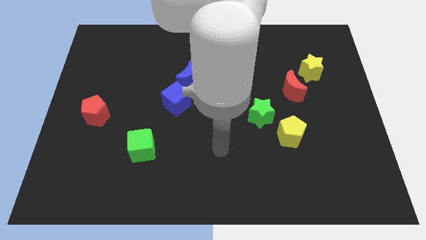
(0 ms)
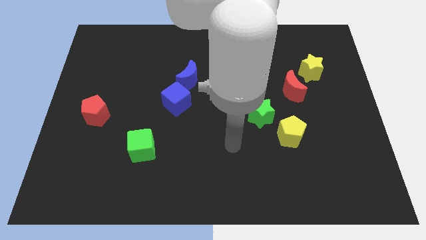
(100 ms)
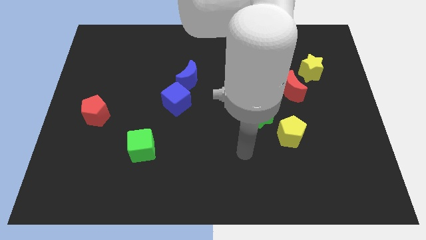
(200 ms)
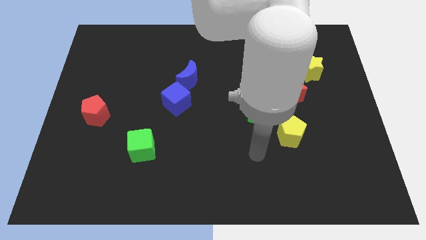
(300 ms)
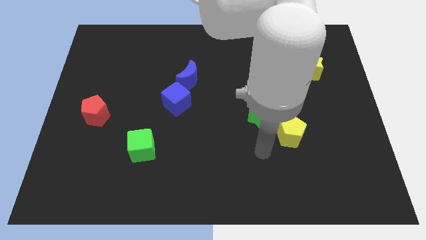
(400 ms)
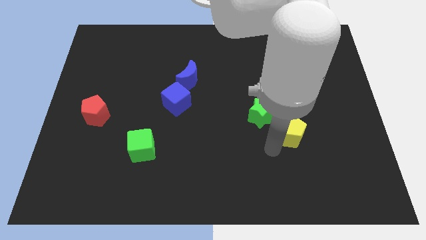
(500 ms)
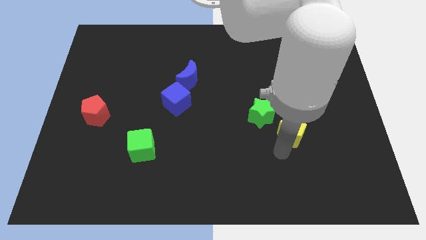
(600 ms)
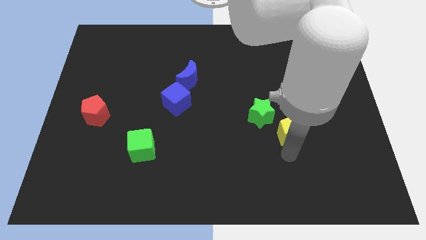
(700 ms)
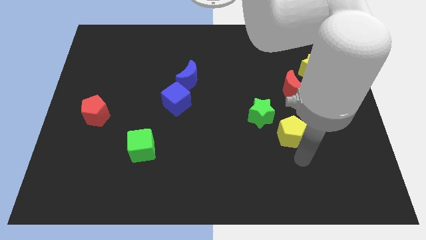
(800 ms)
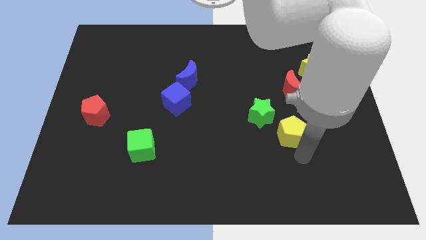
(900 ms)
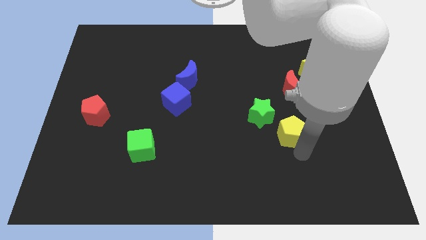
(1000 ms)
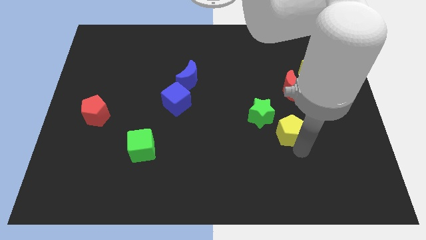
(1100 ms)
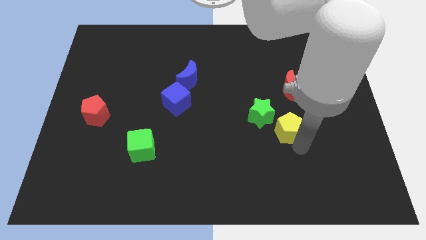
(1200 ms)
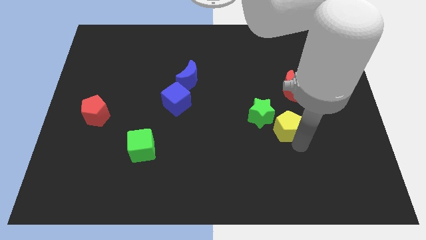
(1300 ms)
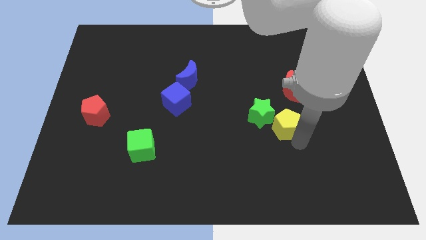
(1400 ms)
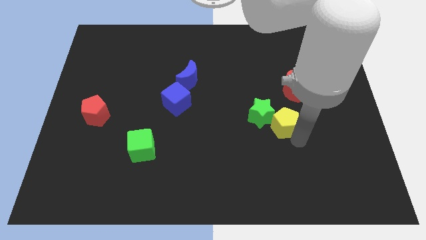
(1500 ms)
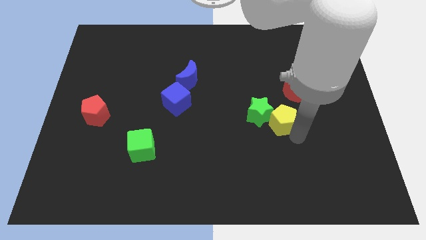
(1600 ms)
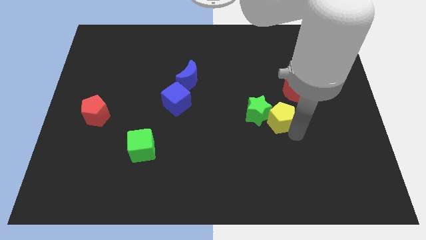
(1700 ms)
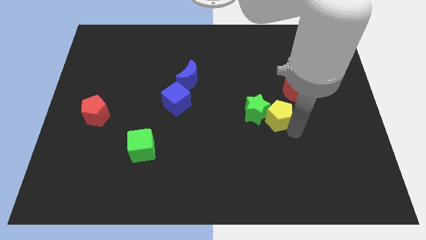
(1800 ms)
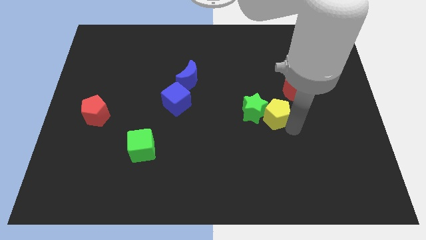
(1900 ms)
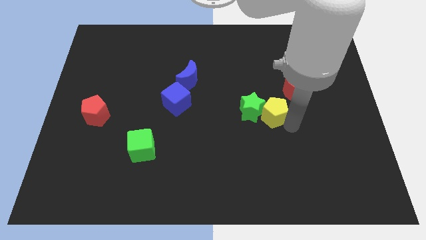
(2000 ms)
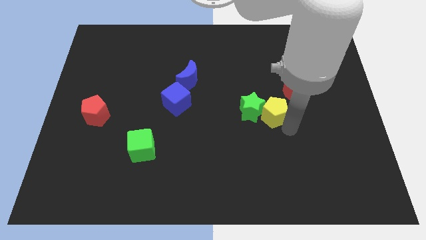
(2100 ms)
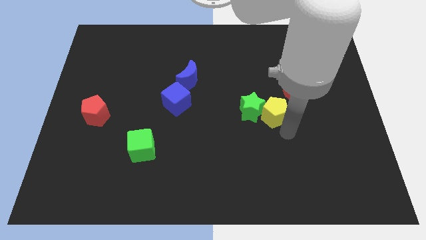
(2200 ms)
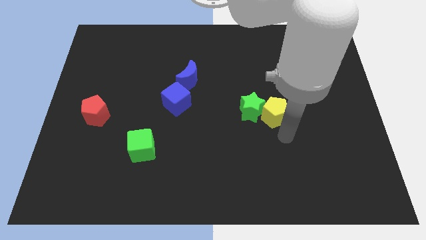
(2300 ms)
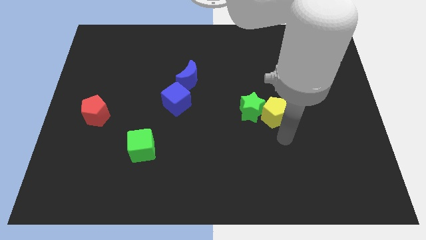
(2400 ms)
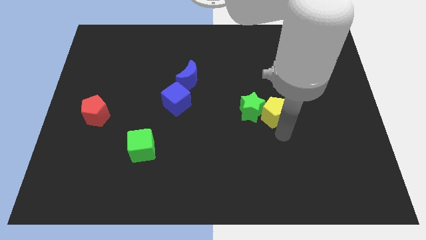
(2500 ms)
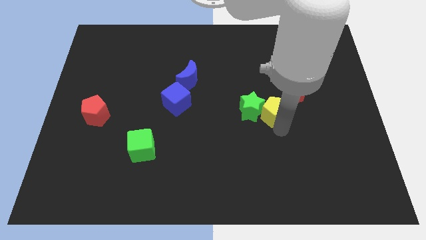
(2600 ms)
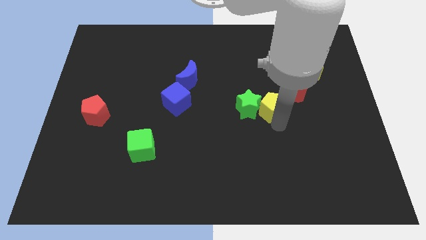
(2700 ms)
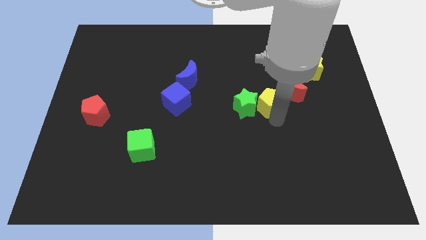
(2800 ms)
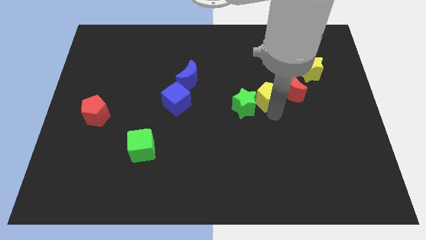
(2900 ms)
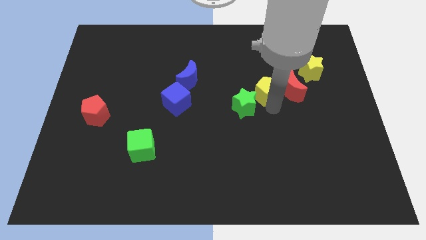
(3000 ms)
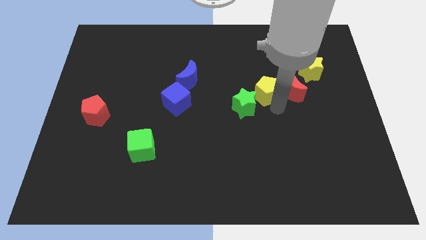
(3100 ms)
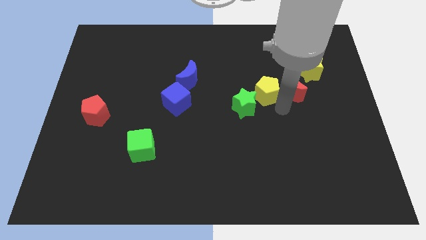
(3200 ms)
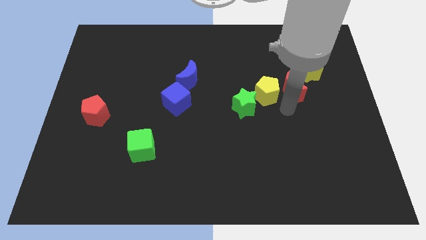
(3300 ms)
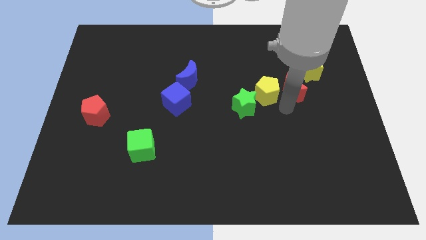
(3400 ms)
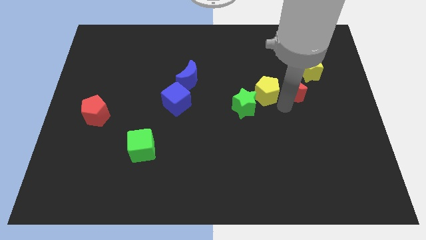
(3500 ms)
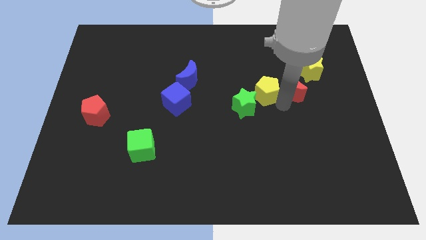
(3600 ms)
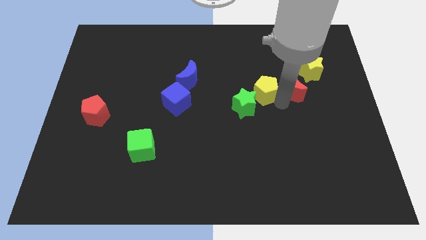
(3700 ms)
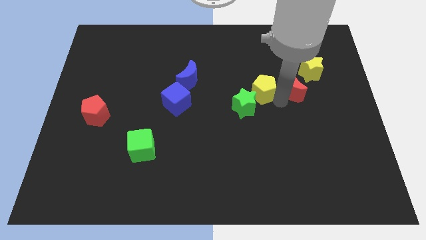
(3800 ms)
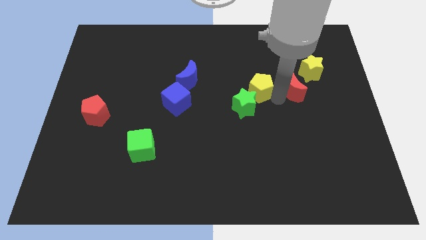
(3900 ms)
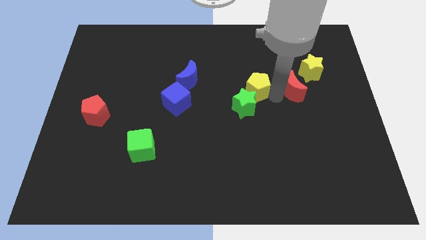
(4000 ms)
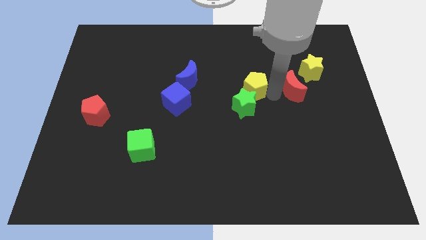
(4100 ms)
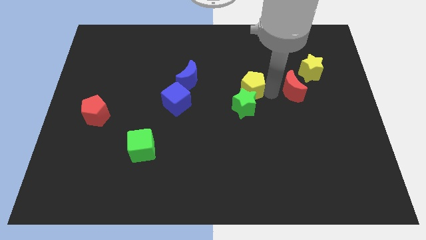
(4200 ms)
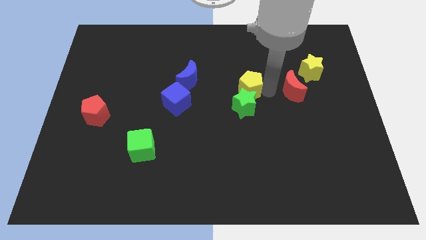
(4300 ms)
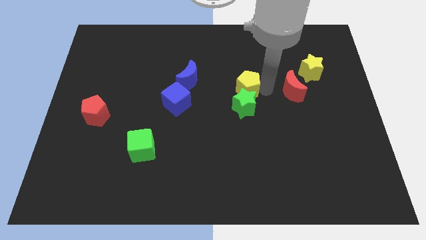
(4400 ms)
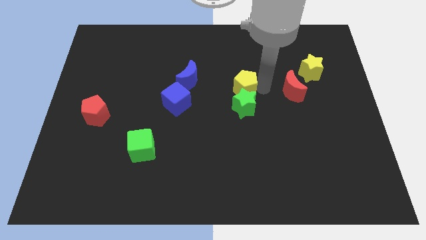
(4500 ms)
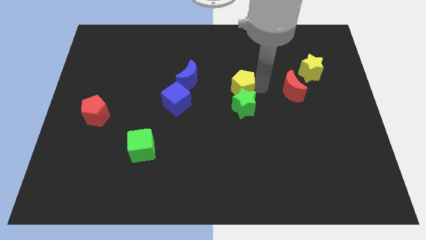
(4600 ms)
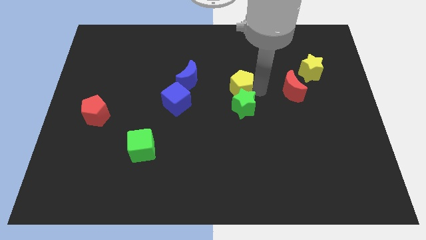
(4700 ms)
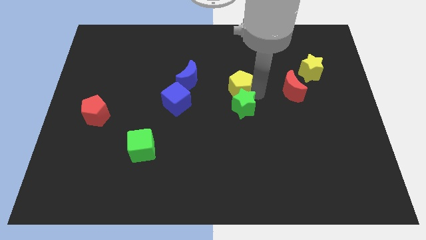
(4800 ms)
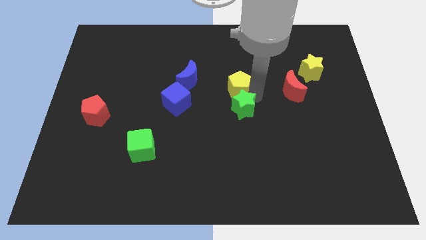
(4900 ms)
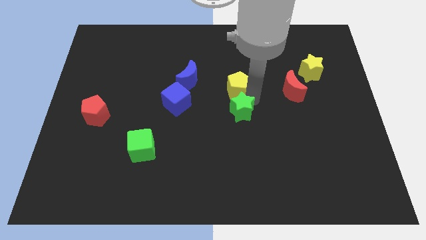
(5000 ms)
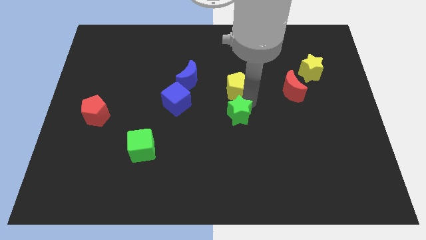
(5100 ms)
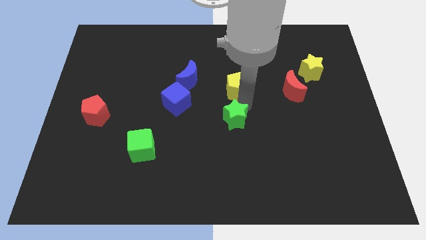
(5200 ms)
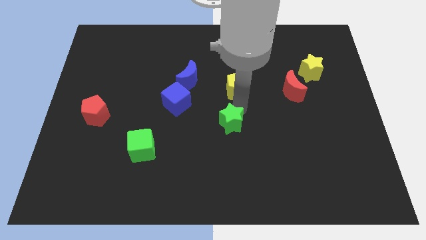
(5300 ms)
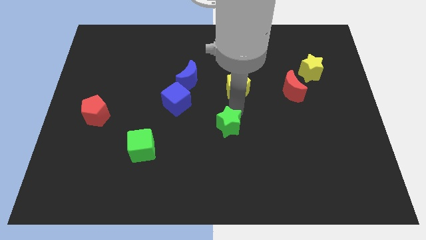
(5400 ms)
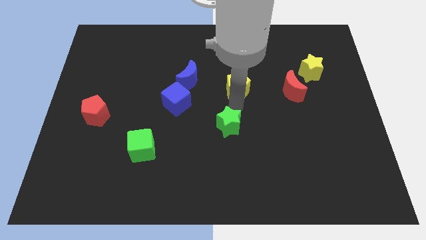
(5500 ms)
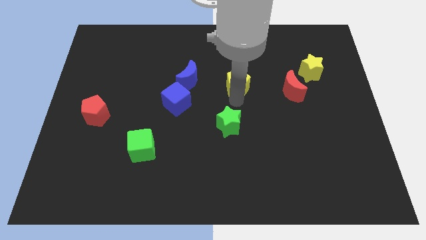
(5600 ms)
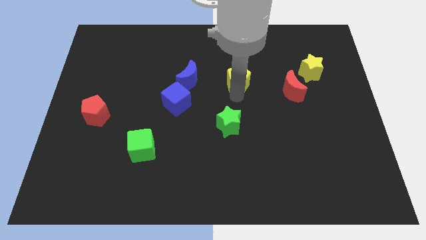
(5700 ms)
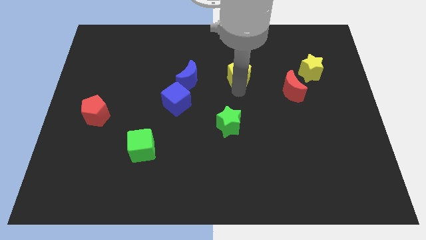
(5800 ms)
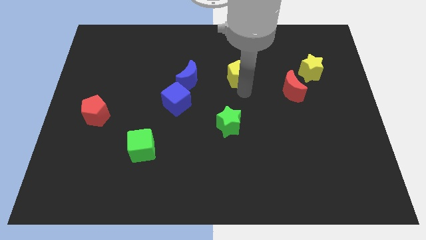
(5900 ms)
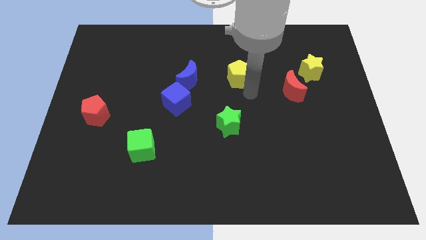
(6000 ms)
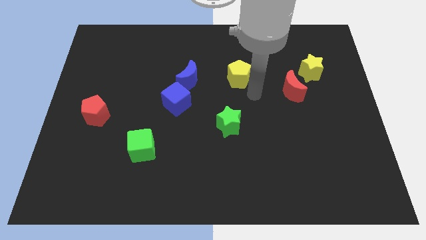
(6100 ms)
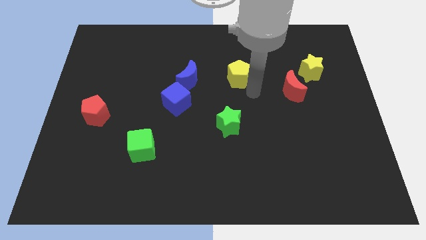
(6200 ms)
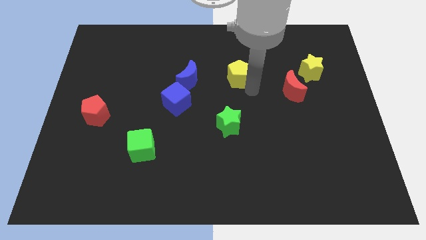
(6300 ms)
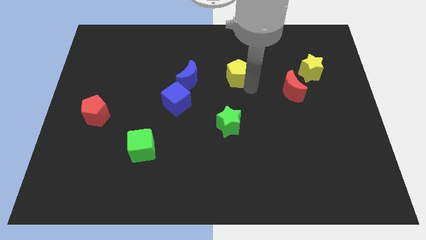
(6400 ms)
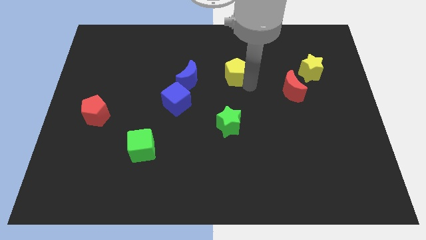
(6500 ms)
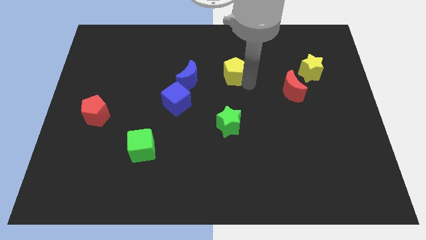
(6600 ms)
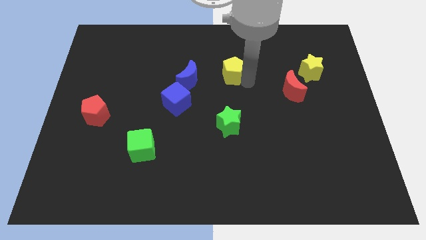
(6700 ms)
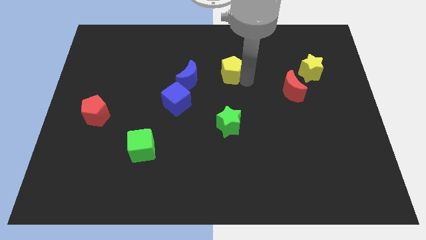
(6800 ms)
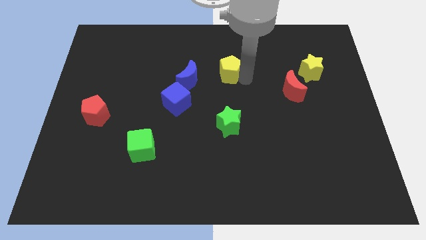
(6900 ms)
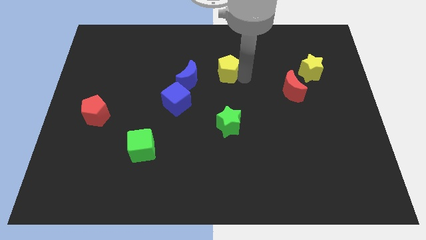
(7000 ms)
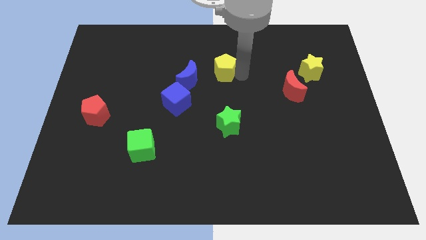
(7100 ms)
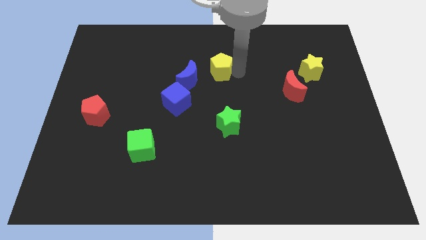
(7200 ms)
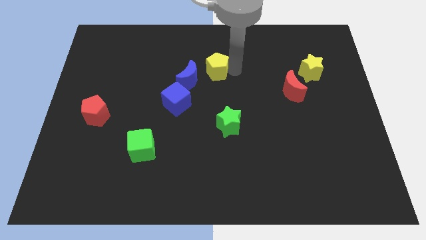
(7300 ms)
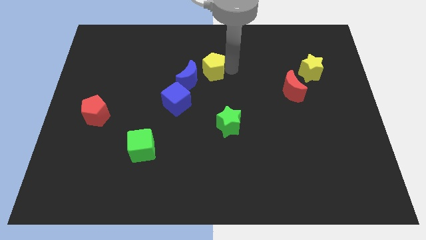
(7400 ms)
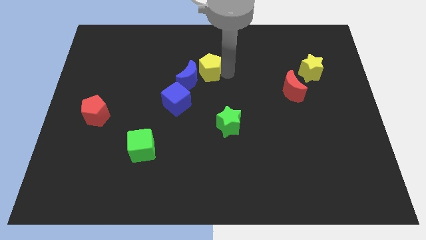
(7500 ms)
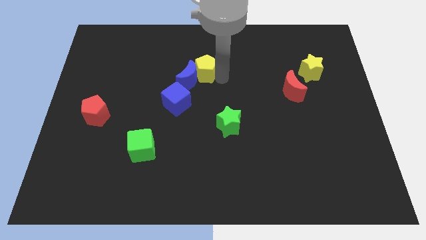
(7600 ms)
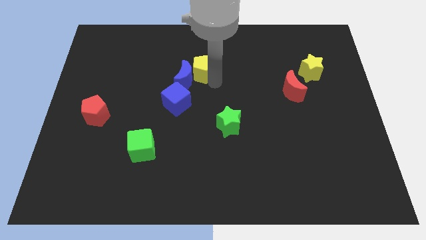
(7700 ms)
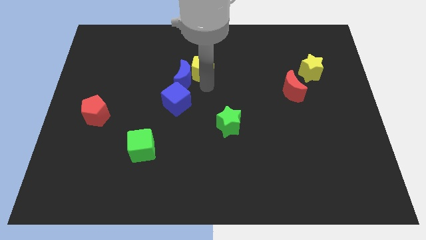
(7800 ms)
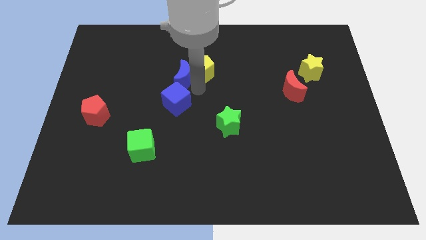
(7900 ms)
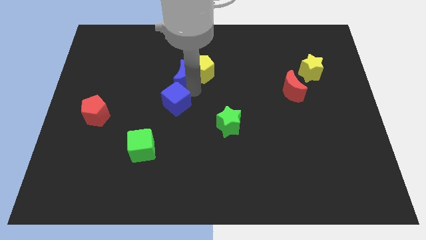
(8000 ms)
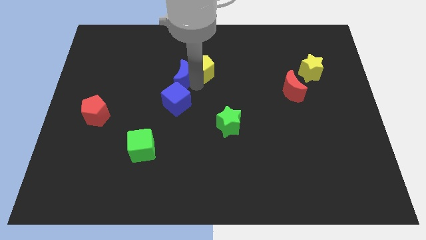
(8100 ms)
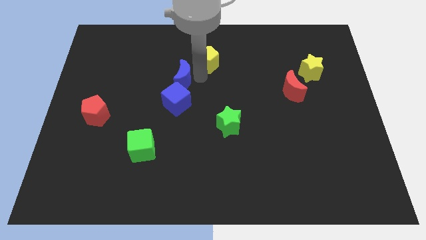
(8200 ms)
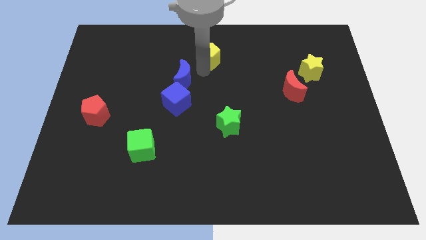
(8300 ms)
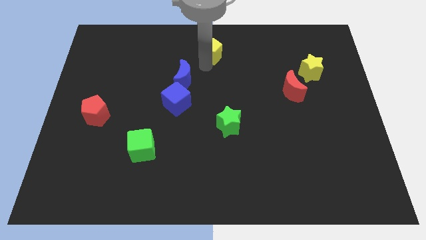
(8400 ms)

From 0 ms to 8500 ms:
slide the yellow pentagon to the top side
